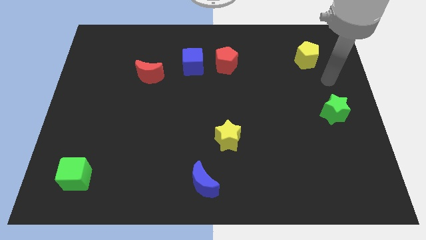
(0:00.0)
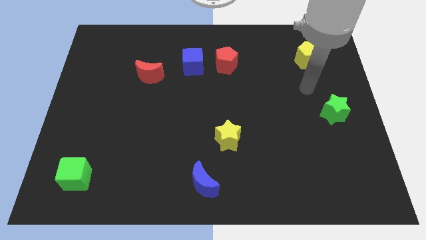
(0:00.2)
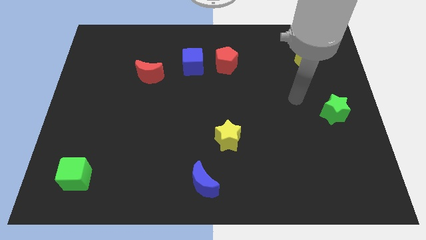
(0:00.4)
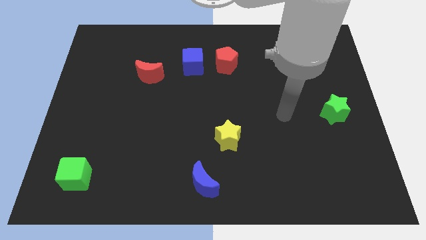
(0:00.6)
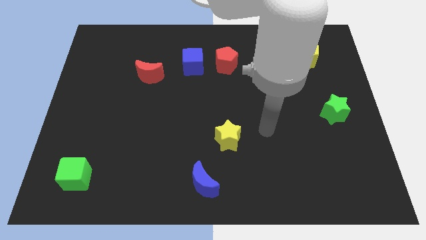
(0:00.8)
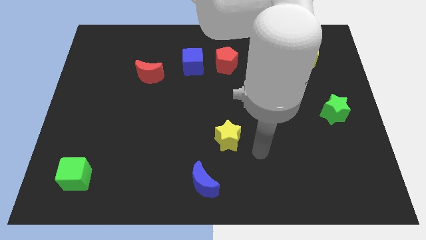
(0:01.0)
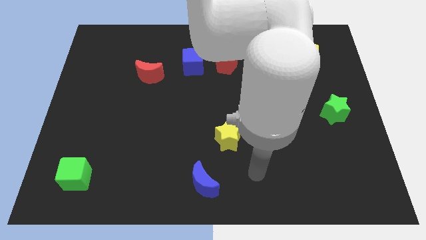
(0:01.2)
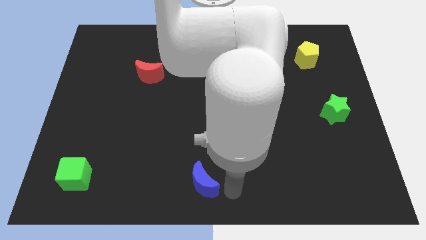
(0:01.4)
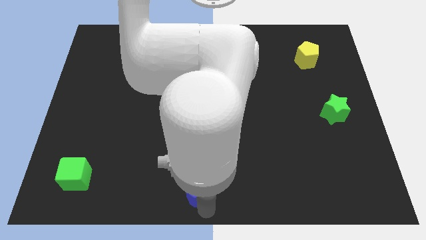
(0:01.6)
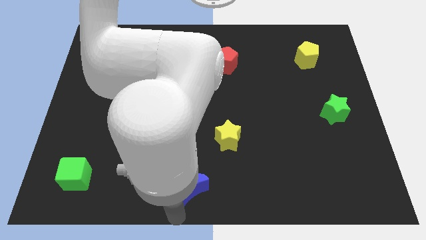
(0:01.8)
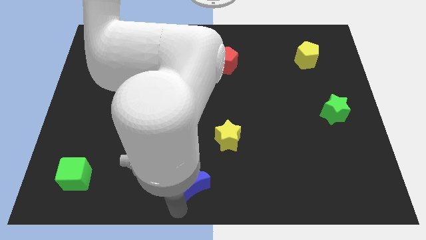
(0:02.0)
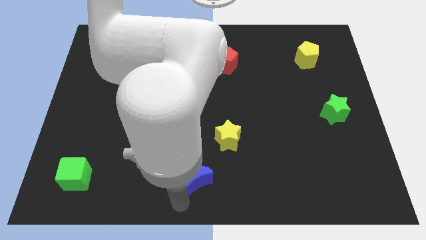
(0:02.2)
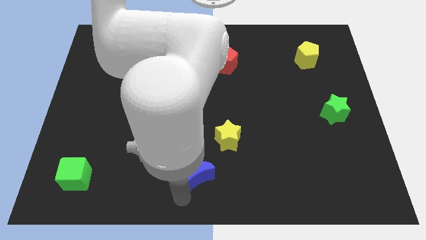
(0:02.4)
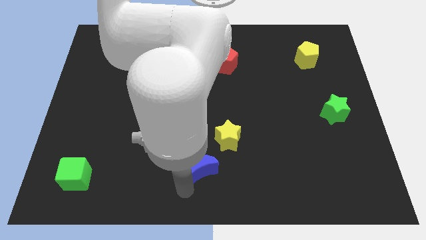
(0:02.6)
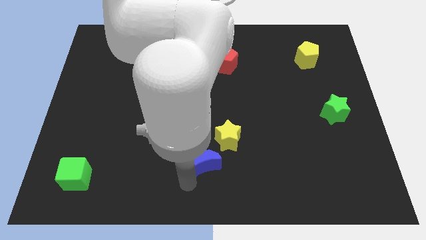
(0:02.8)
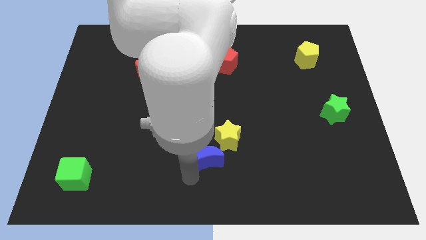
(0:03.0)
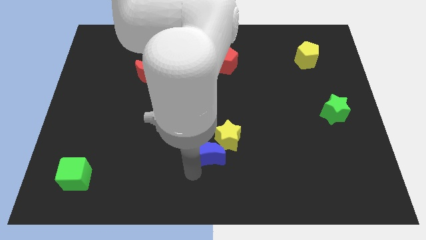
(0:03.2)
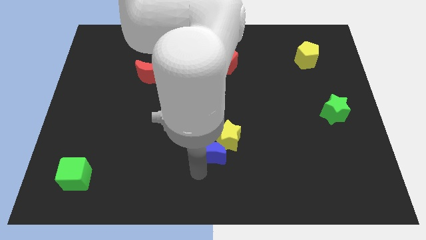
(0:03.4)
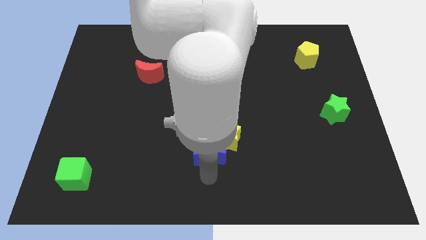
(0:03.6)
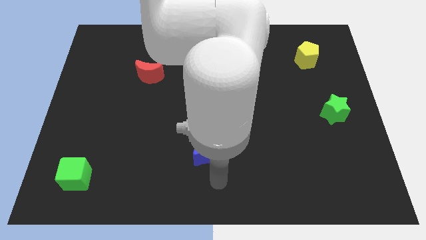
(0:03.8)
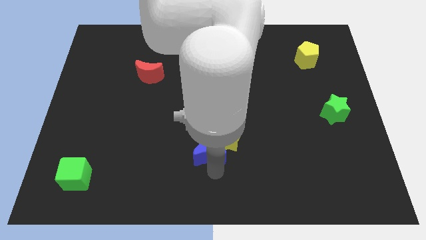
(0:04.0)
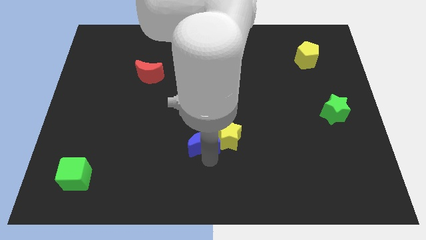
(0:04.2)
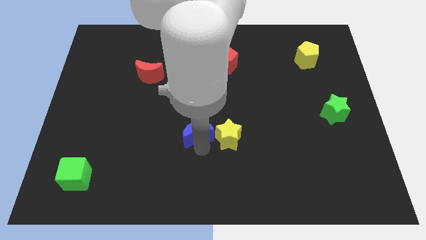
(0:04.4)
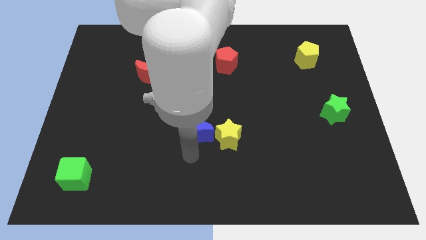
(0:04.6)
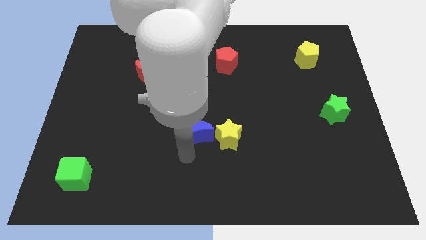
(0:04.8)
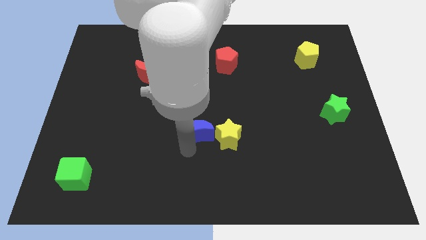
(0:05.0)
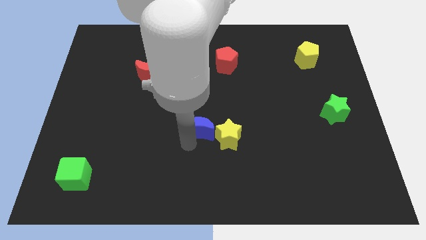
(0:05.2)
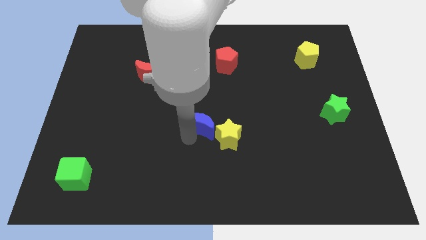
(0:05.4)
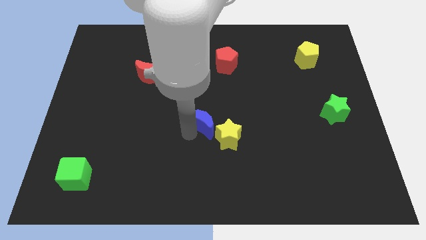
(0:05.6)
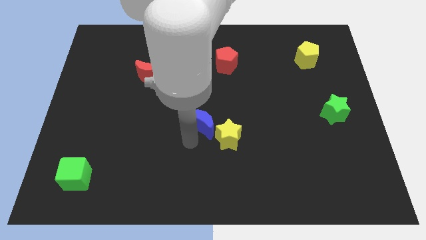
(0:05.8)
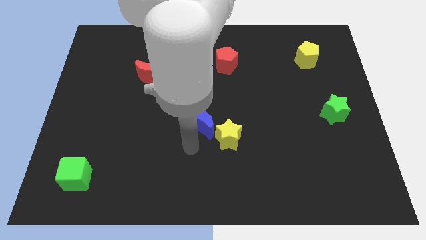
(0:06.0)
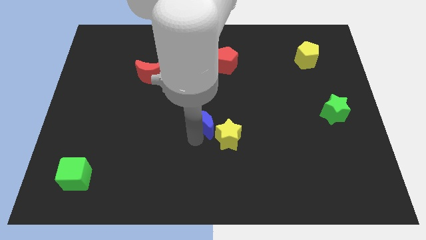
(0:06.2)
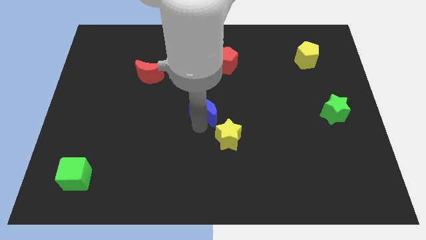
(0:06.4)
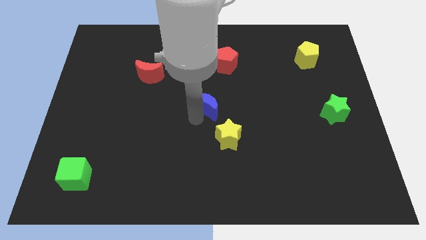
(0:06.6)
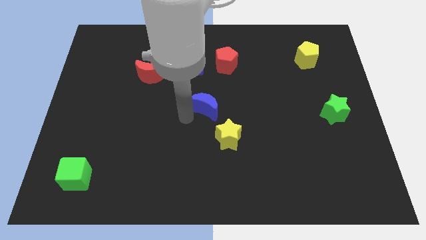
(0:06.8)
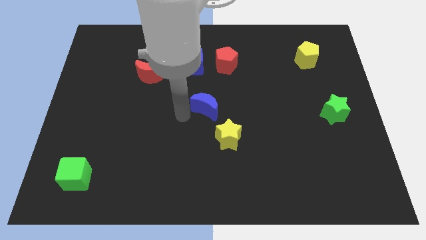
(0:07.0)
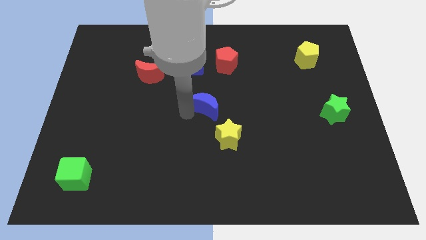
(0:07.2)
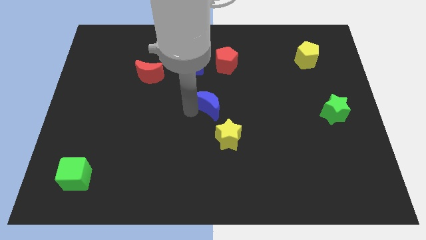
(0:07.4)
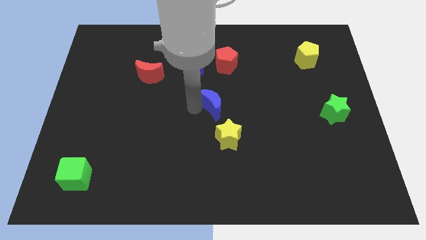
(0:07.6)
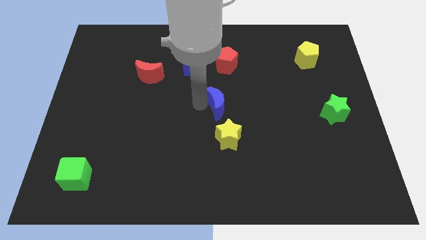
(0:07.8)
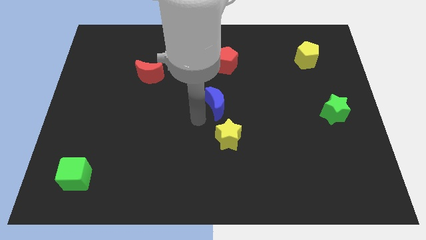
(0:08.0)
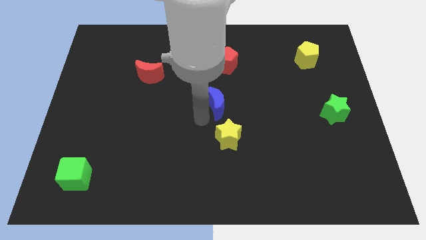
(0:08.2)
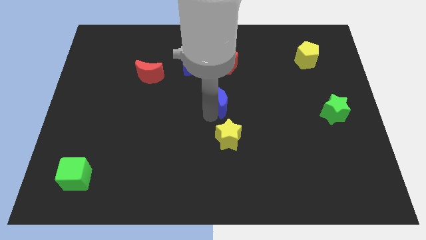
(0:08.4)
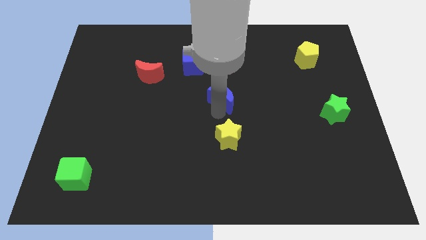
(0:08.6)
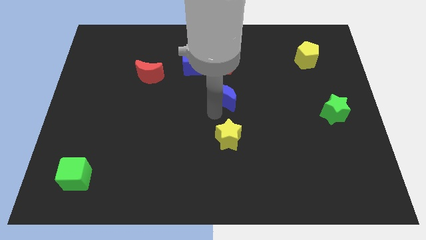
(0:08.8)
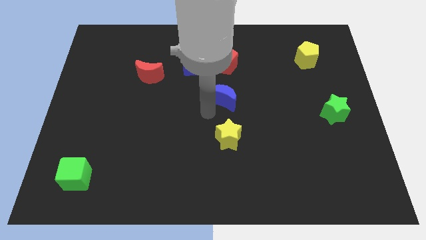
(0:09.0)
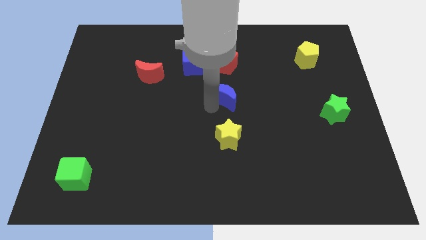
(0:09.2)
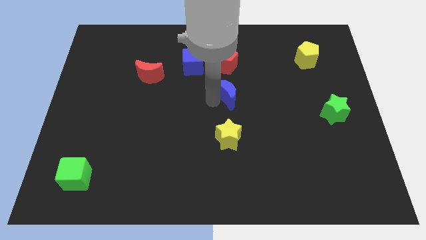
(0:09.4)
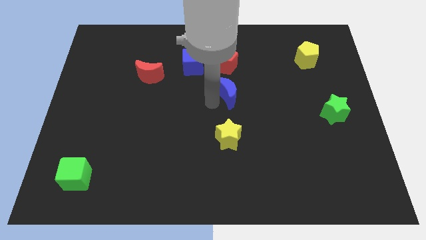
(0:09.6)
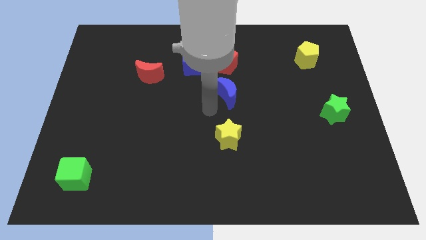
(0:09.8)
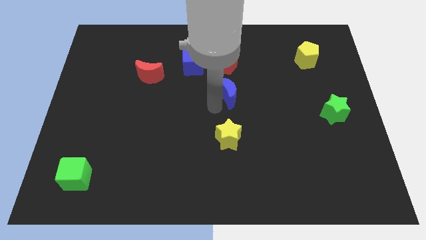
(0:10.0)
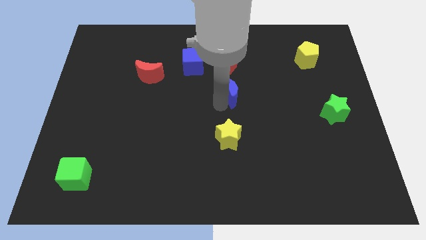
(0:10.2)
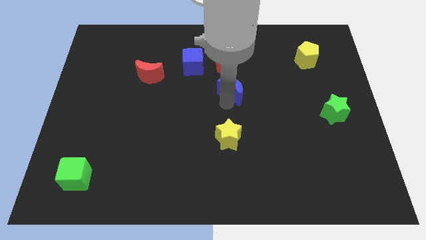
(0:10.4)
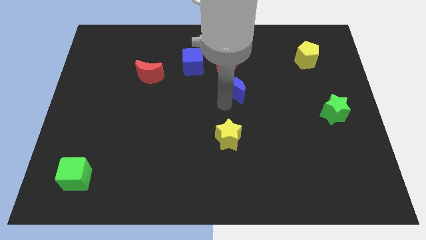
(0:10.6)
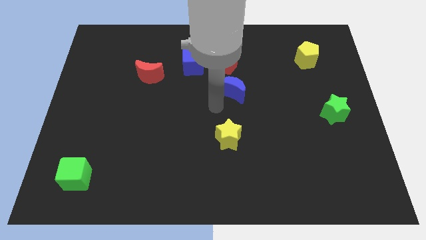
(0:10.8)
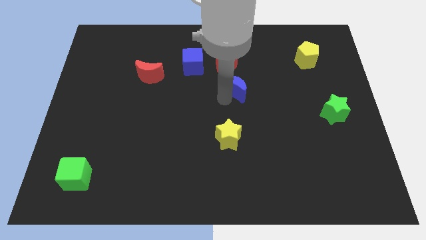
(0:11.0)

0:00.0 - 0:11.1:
slide the blue moon to the bottom right of the red pentagon

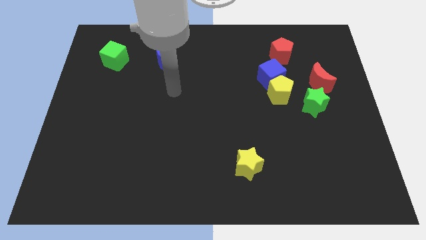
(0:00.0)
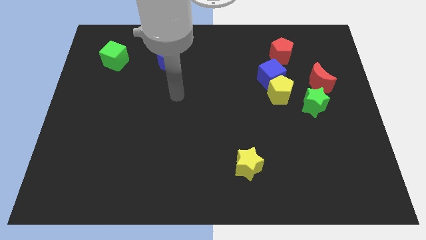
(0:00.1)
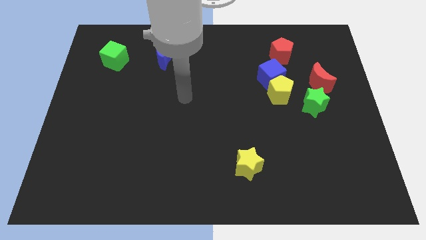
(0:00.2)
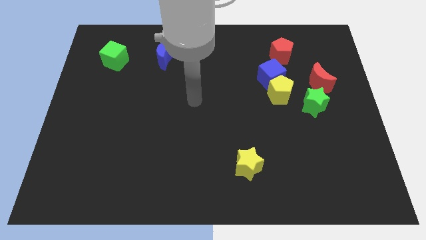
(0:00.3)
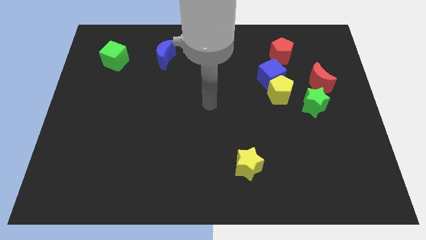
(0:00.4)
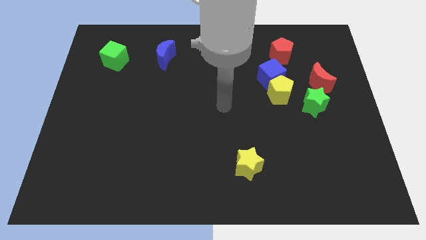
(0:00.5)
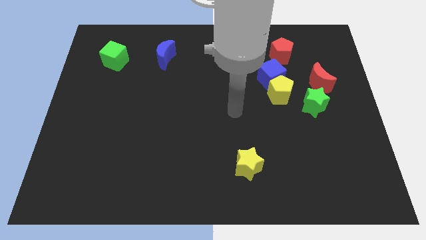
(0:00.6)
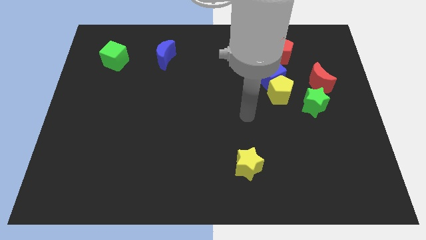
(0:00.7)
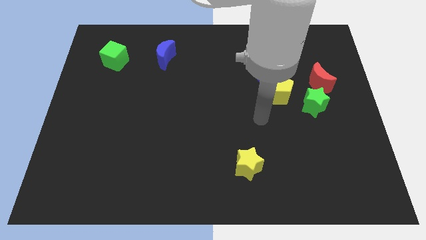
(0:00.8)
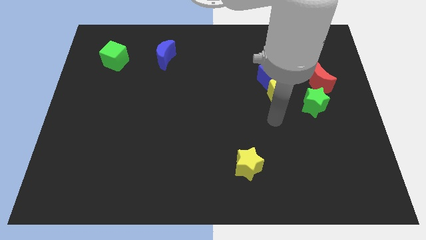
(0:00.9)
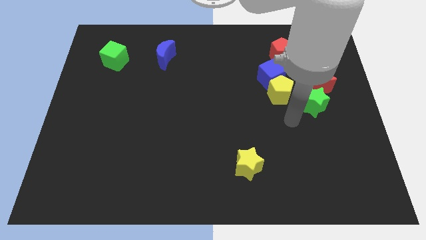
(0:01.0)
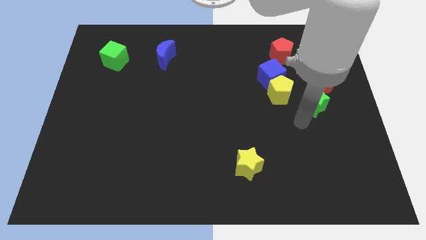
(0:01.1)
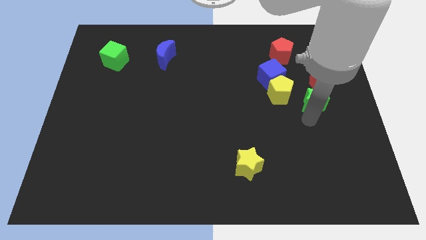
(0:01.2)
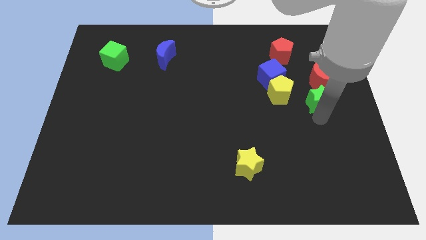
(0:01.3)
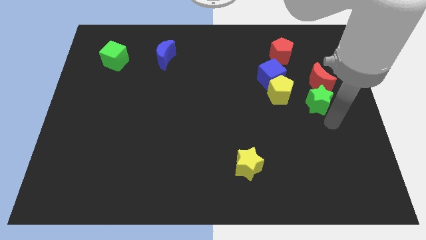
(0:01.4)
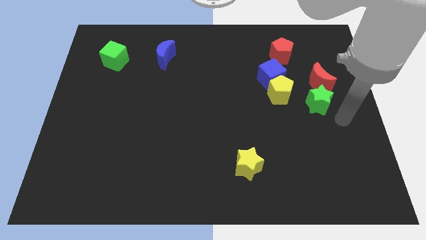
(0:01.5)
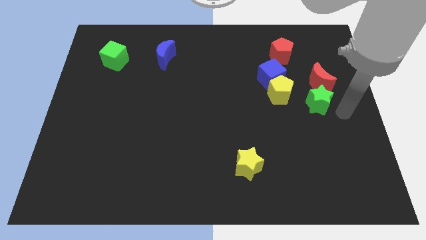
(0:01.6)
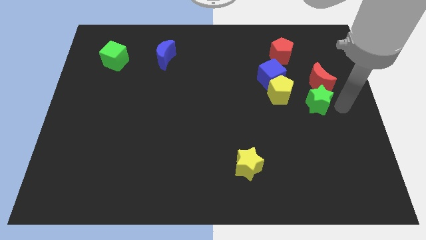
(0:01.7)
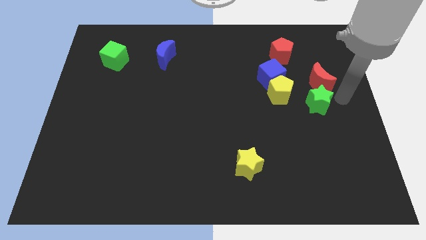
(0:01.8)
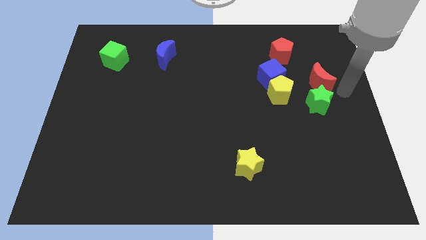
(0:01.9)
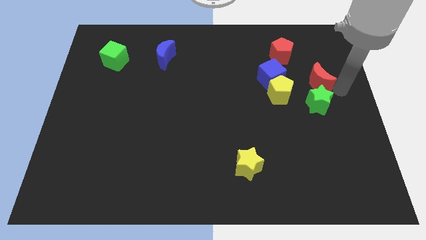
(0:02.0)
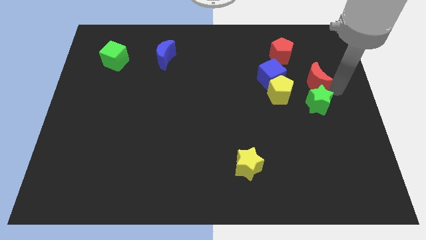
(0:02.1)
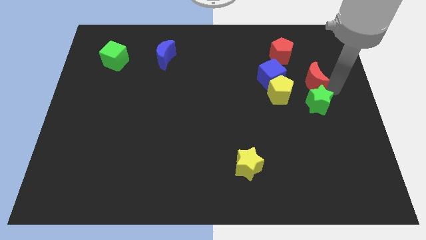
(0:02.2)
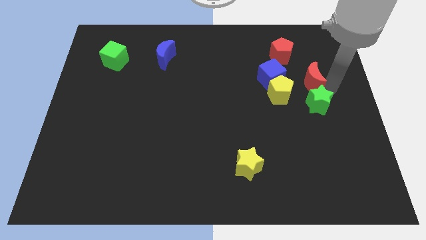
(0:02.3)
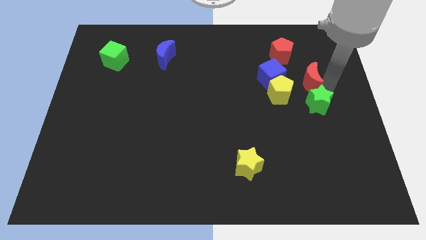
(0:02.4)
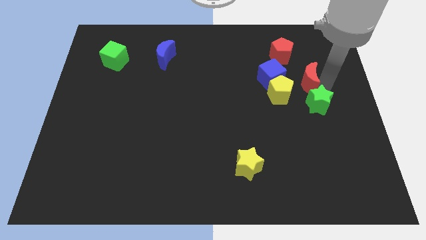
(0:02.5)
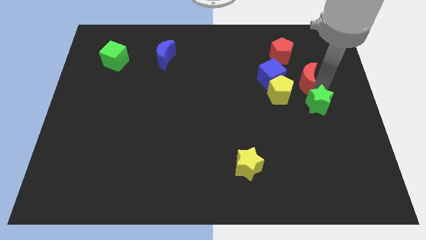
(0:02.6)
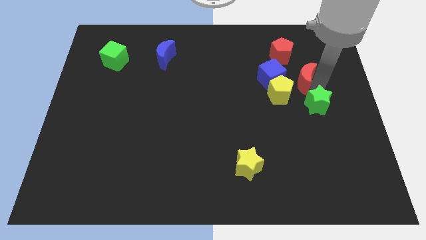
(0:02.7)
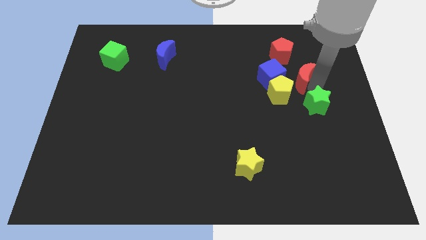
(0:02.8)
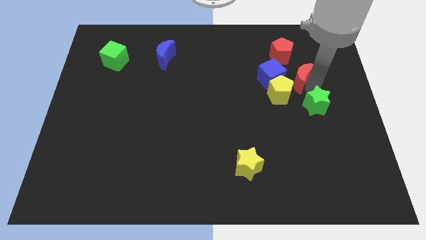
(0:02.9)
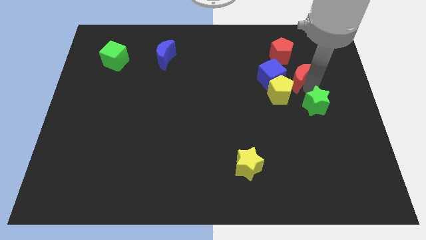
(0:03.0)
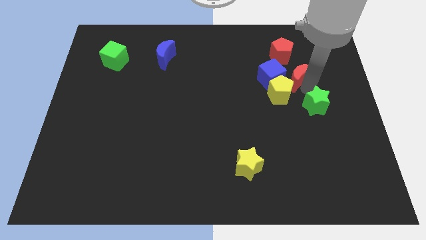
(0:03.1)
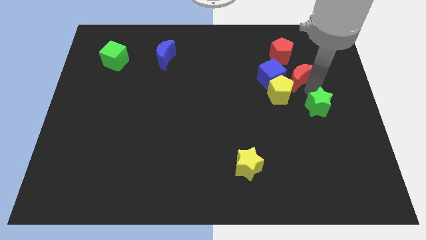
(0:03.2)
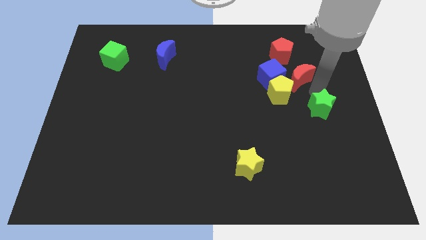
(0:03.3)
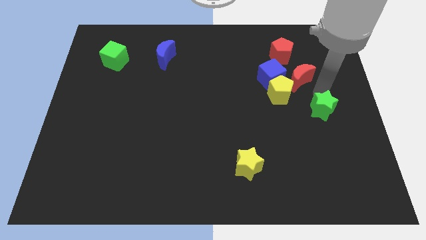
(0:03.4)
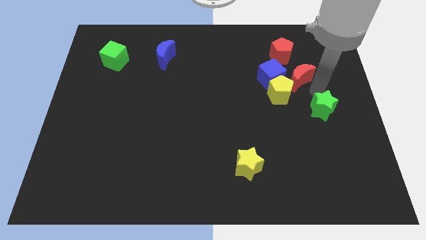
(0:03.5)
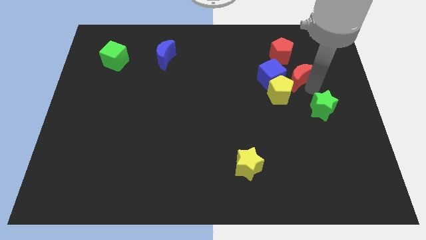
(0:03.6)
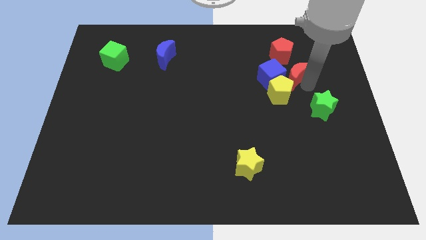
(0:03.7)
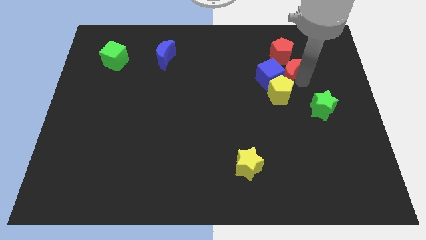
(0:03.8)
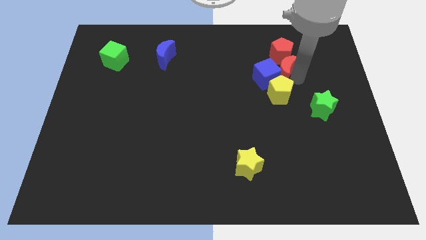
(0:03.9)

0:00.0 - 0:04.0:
move the red moon diagonally down and to the left of the red pentagon
